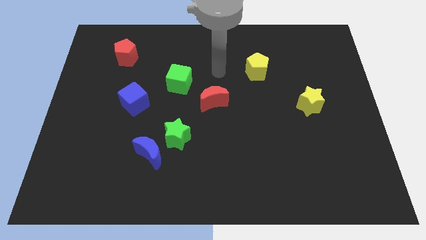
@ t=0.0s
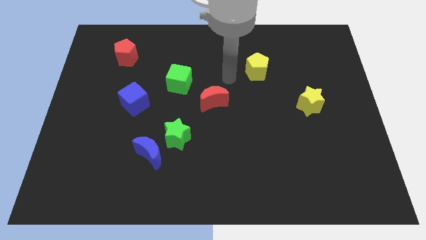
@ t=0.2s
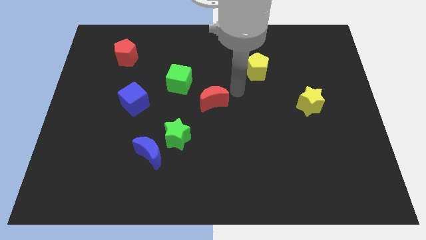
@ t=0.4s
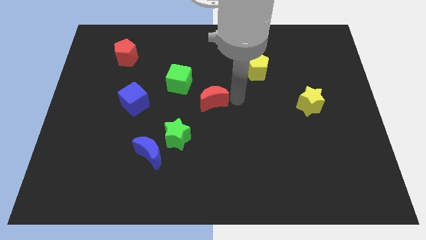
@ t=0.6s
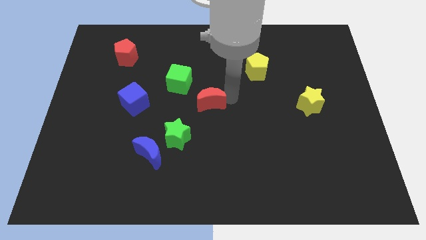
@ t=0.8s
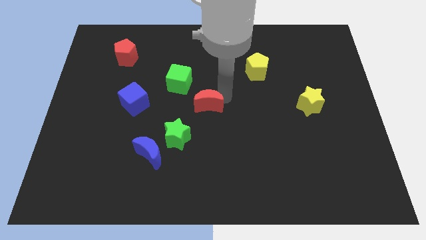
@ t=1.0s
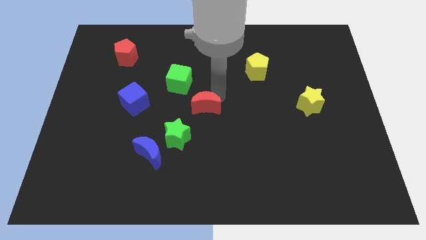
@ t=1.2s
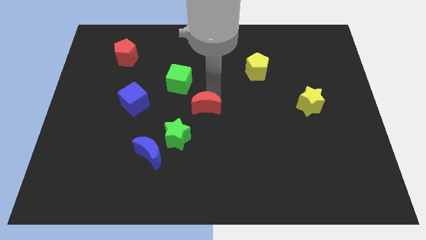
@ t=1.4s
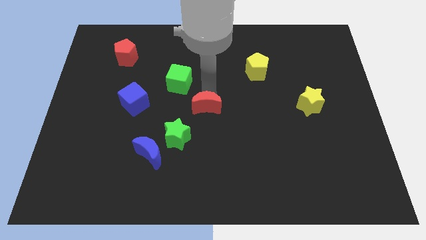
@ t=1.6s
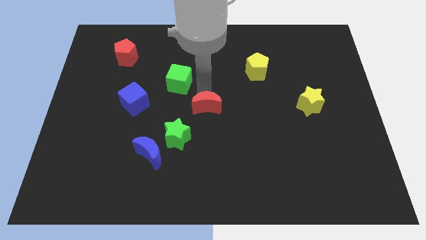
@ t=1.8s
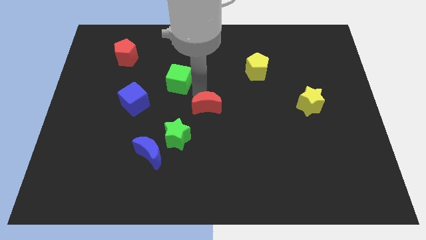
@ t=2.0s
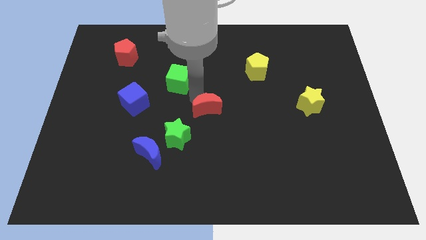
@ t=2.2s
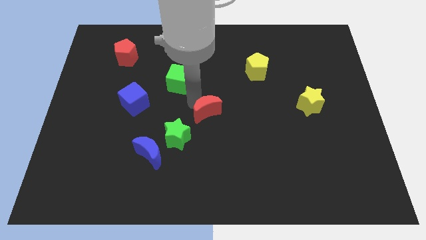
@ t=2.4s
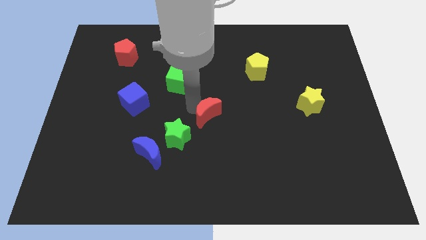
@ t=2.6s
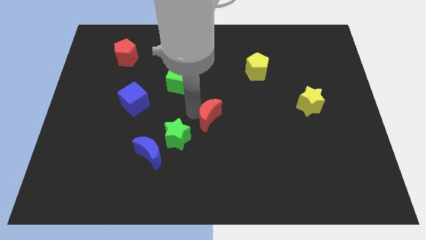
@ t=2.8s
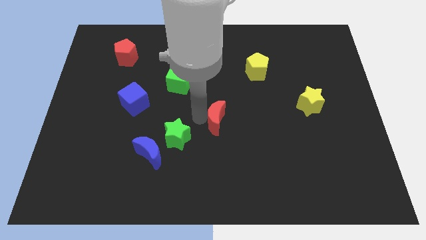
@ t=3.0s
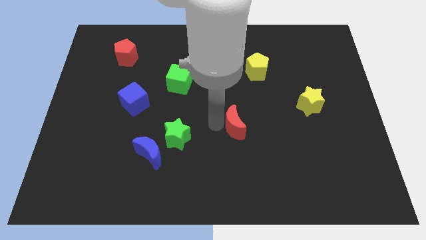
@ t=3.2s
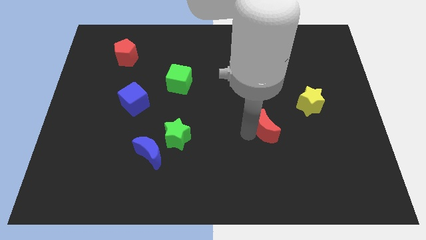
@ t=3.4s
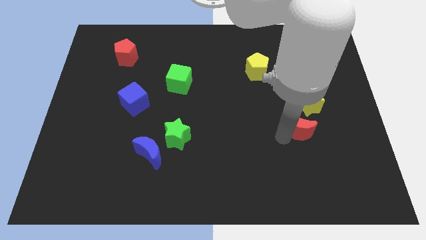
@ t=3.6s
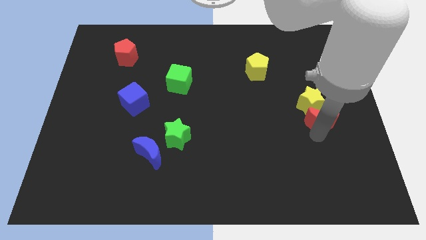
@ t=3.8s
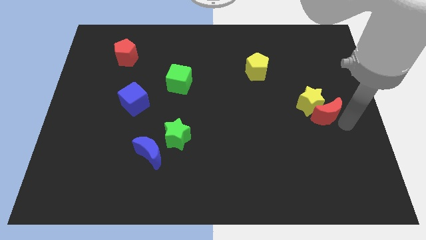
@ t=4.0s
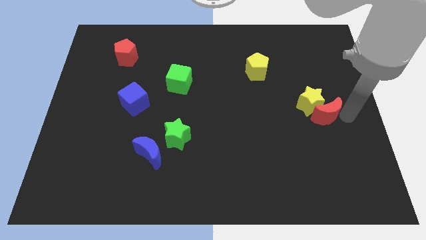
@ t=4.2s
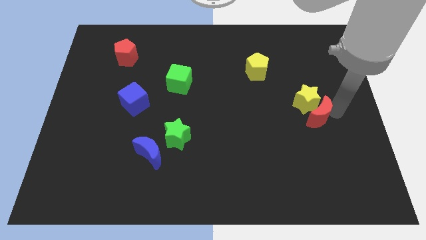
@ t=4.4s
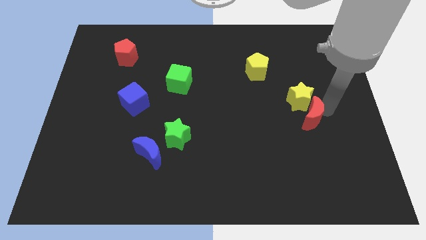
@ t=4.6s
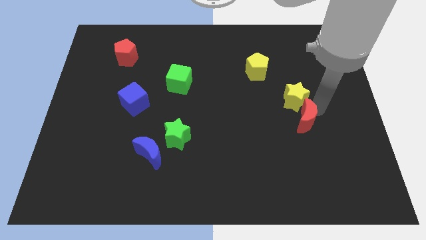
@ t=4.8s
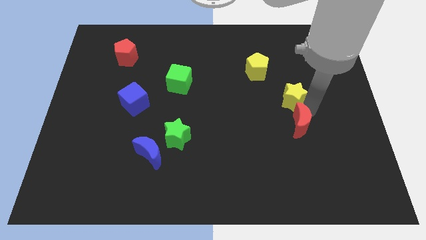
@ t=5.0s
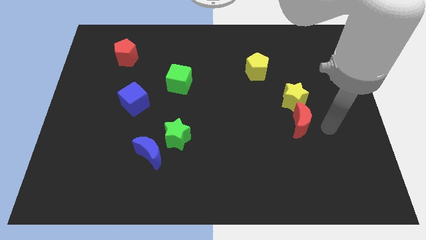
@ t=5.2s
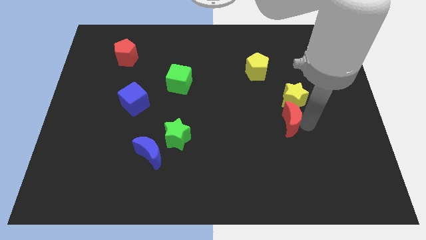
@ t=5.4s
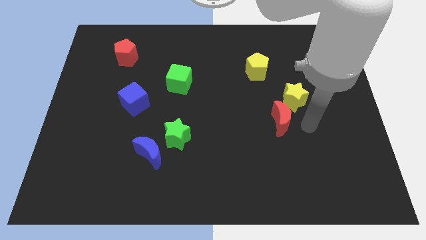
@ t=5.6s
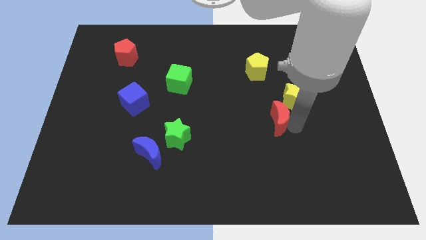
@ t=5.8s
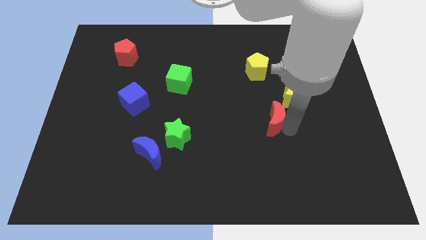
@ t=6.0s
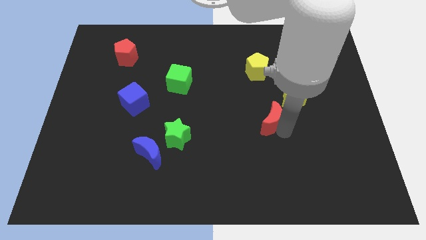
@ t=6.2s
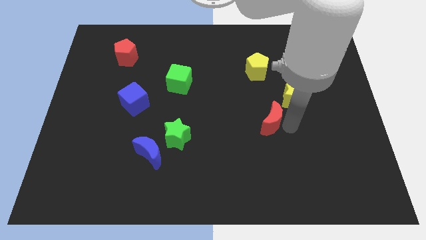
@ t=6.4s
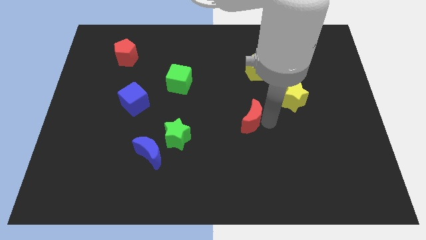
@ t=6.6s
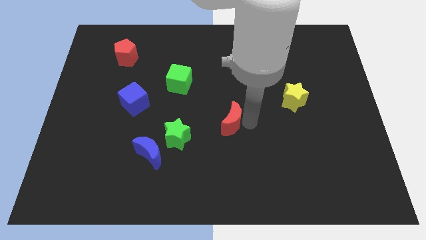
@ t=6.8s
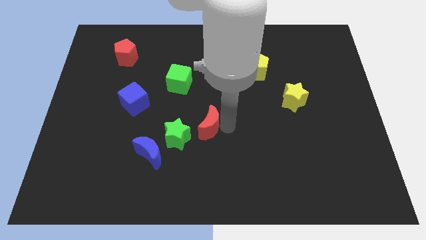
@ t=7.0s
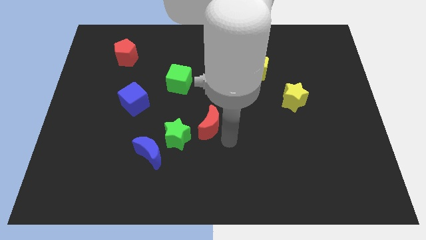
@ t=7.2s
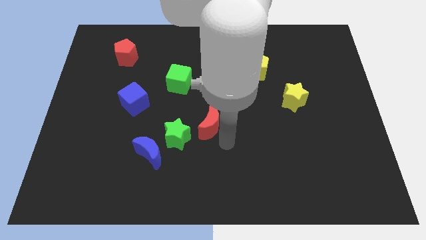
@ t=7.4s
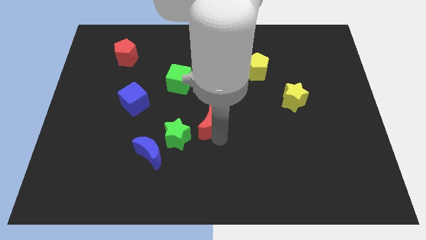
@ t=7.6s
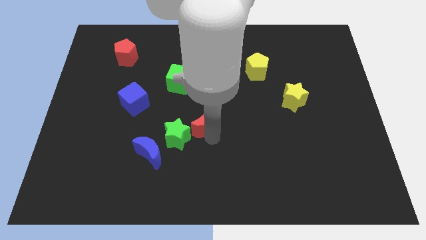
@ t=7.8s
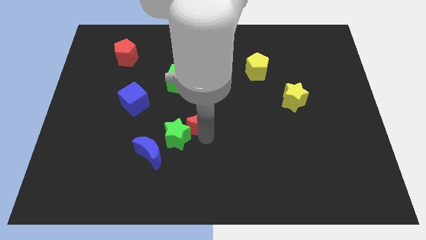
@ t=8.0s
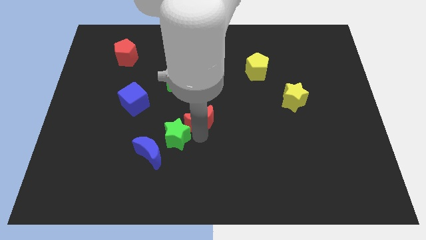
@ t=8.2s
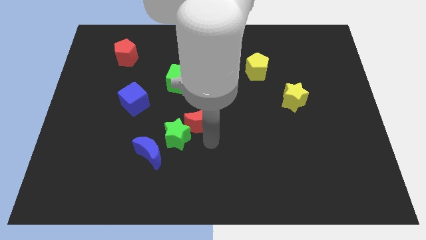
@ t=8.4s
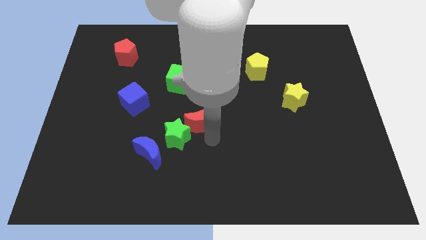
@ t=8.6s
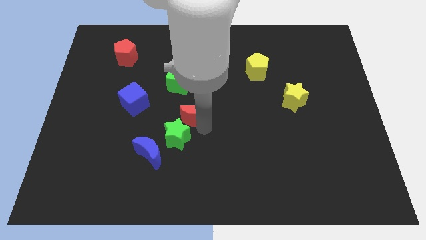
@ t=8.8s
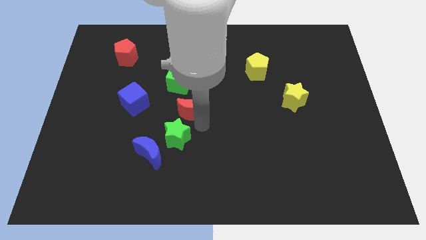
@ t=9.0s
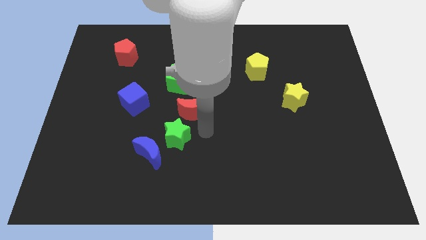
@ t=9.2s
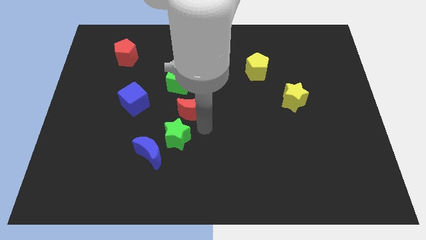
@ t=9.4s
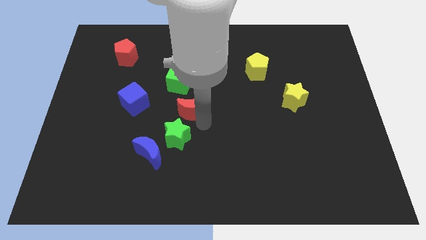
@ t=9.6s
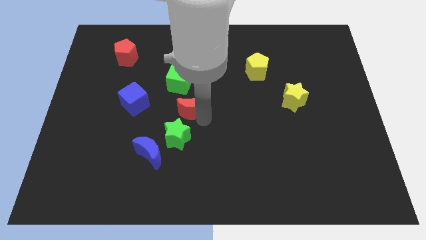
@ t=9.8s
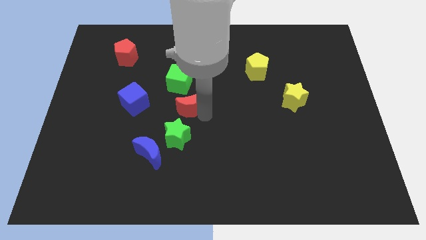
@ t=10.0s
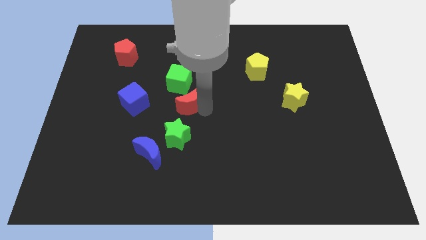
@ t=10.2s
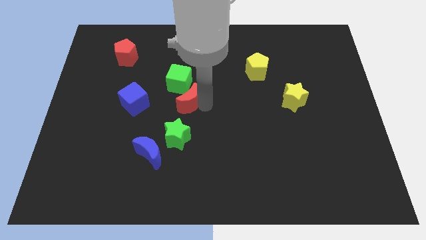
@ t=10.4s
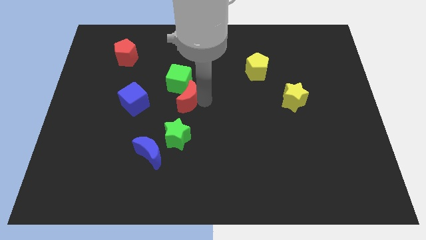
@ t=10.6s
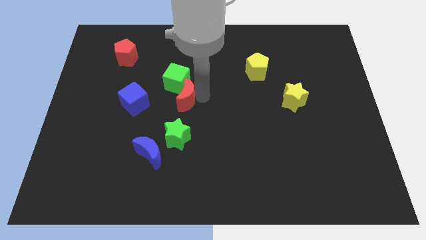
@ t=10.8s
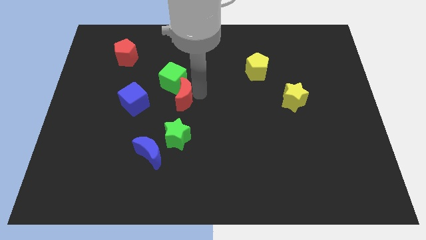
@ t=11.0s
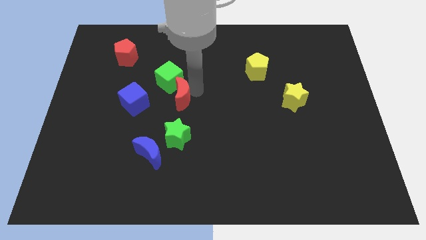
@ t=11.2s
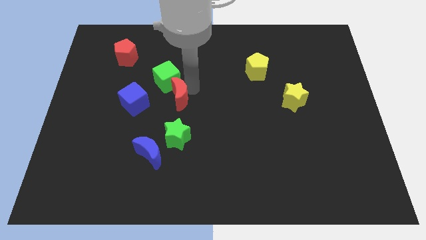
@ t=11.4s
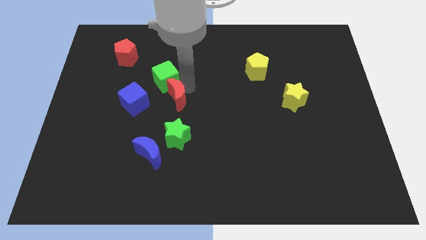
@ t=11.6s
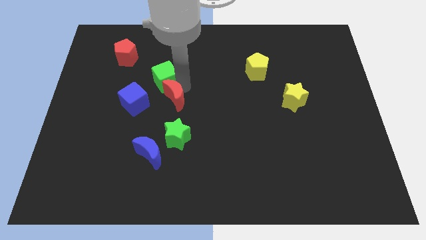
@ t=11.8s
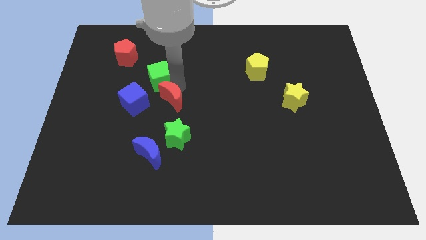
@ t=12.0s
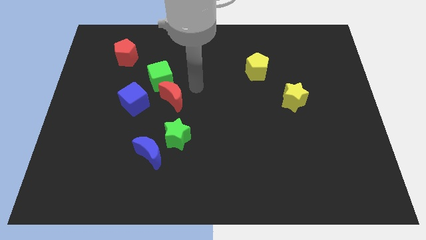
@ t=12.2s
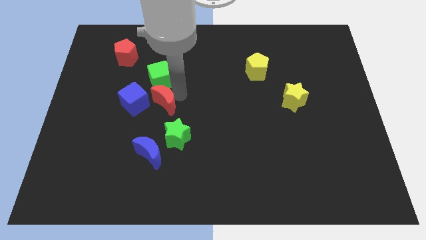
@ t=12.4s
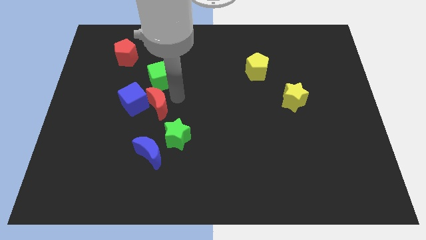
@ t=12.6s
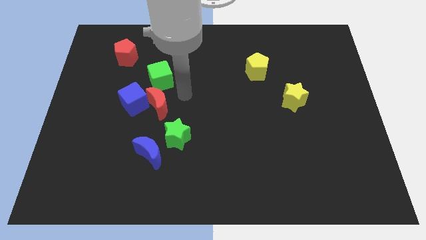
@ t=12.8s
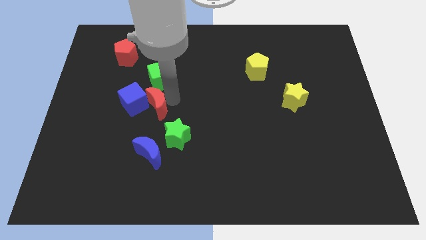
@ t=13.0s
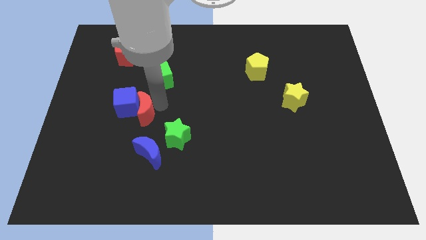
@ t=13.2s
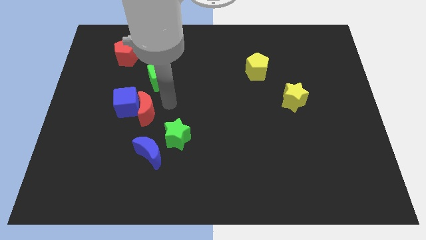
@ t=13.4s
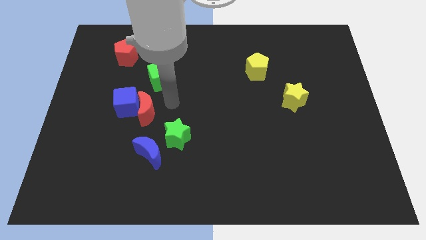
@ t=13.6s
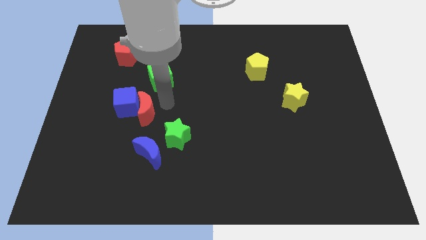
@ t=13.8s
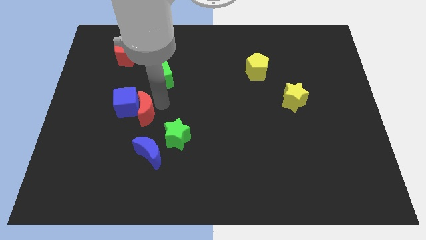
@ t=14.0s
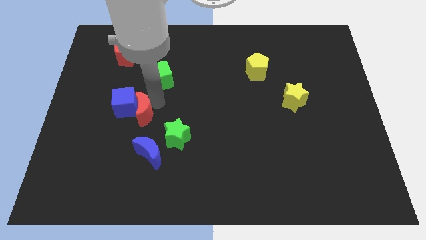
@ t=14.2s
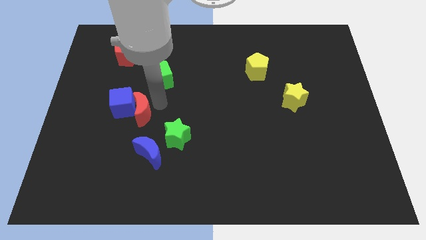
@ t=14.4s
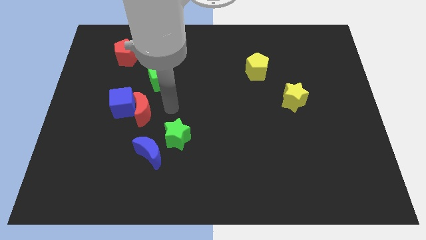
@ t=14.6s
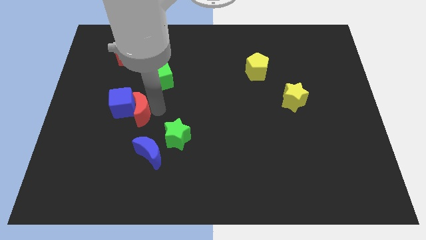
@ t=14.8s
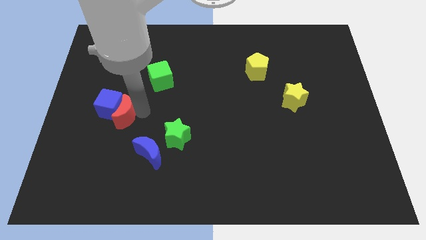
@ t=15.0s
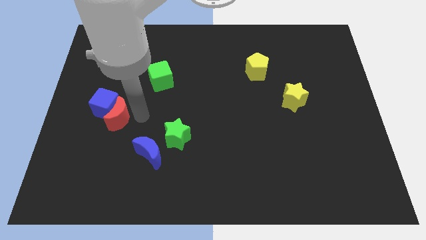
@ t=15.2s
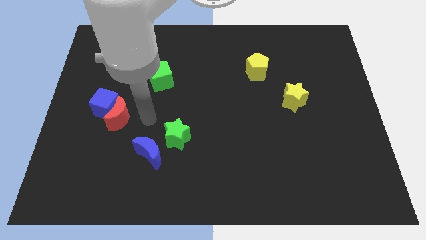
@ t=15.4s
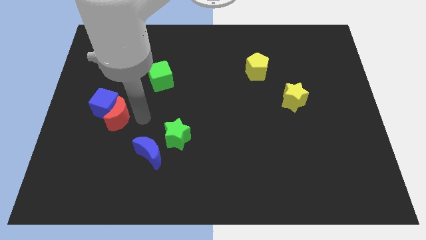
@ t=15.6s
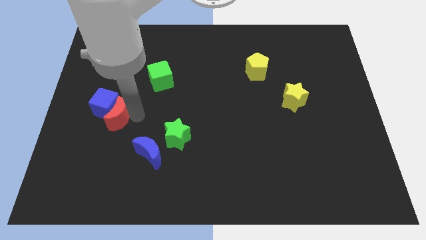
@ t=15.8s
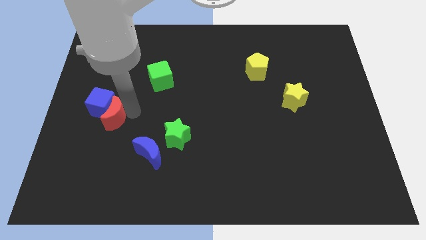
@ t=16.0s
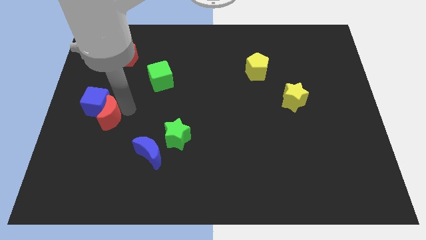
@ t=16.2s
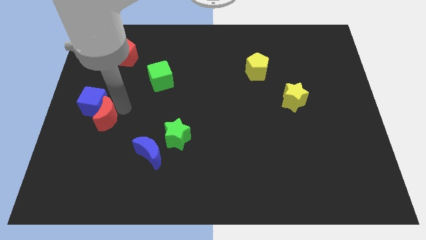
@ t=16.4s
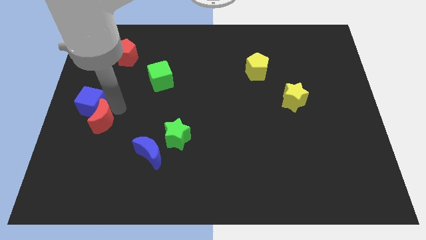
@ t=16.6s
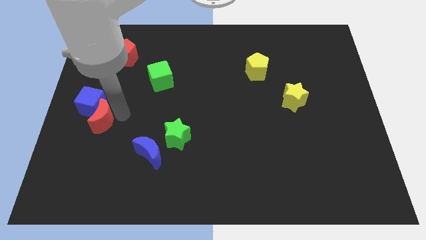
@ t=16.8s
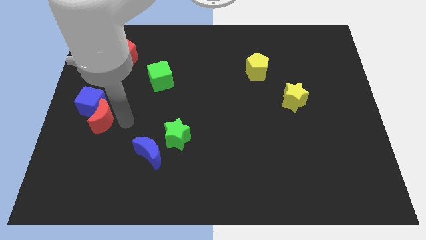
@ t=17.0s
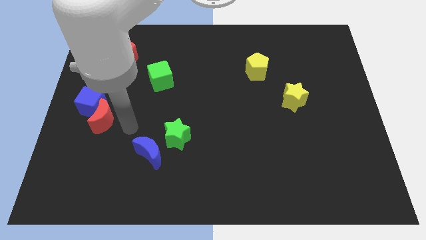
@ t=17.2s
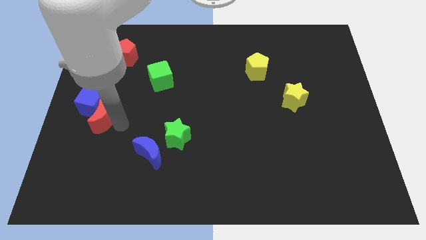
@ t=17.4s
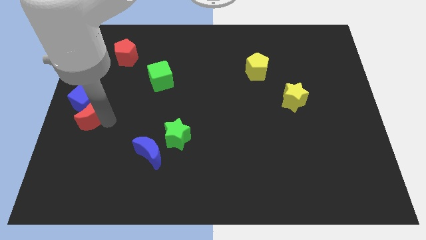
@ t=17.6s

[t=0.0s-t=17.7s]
push the red moon to the left side of the board
